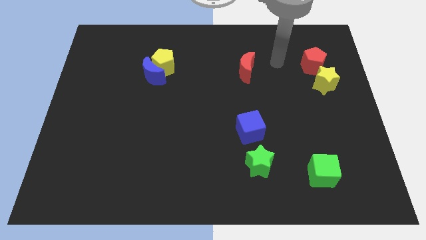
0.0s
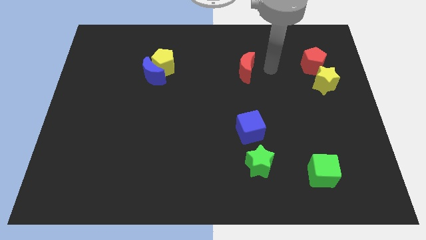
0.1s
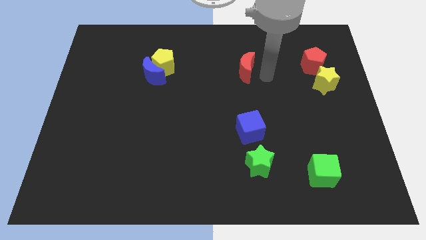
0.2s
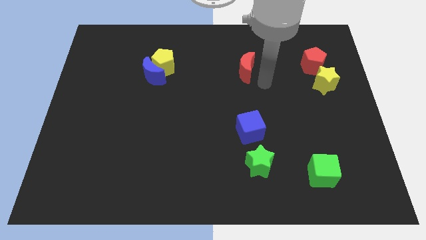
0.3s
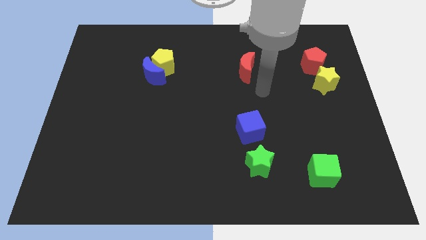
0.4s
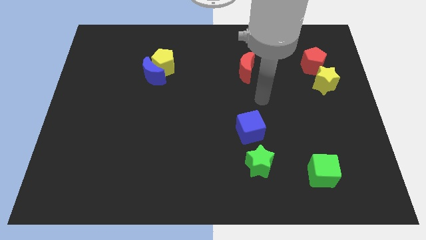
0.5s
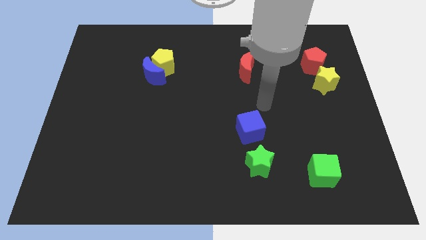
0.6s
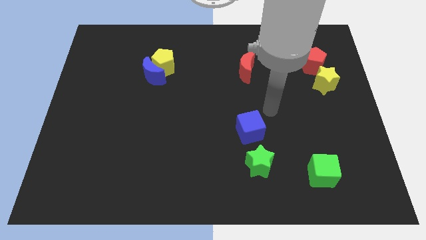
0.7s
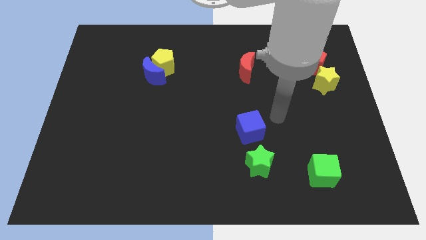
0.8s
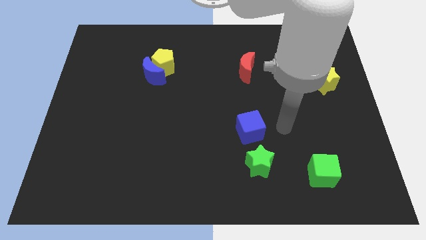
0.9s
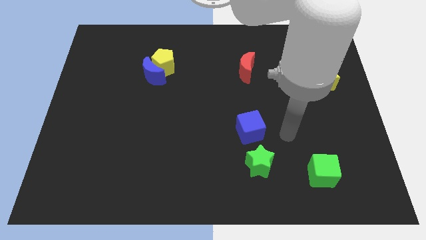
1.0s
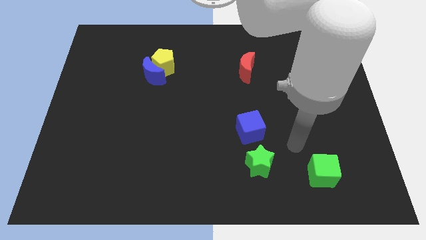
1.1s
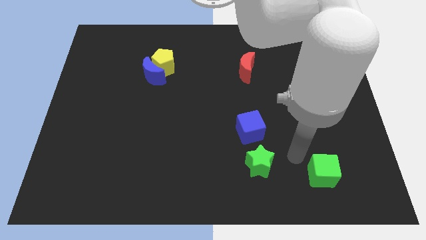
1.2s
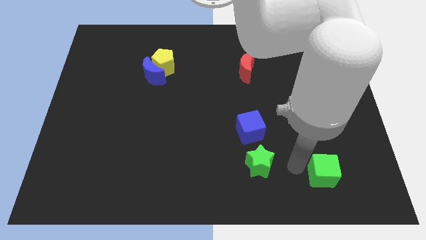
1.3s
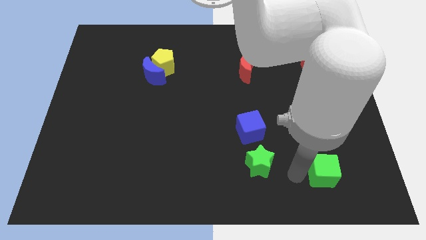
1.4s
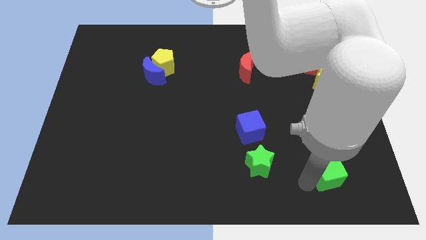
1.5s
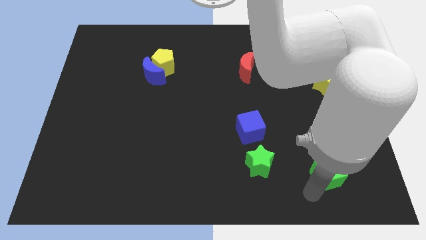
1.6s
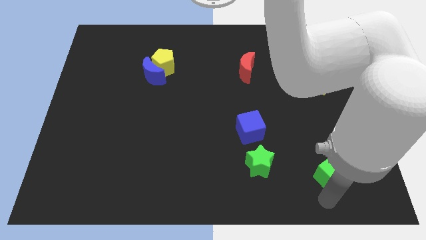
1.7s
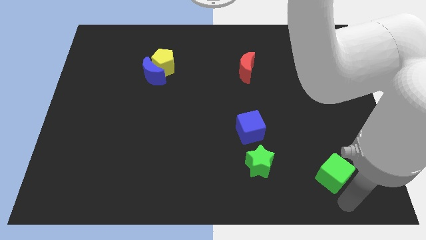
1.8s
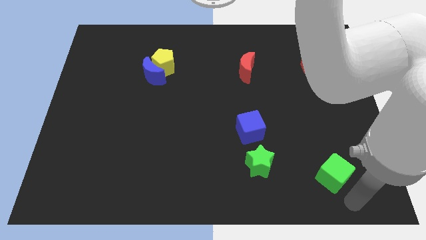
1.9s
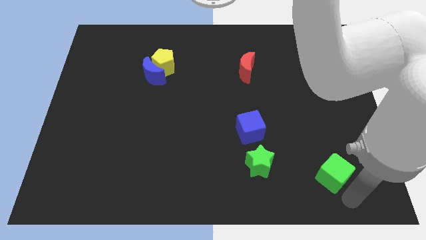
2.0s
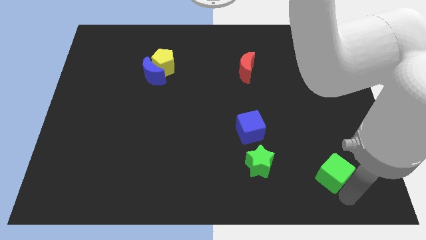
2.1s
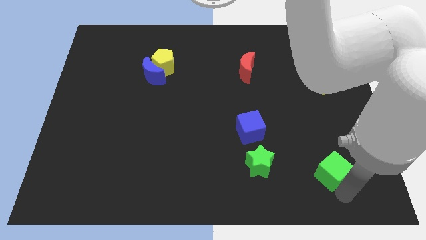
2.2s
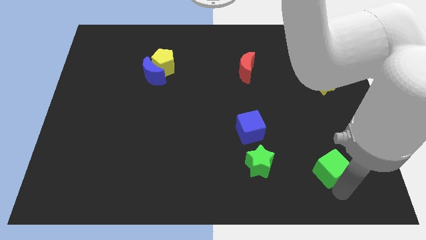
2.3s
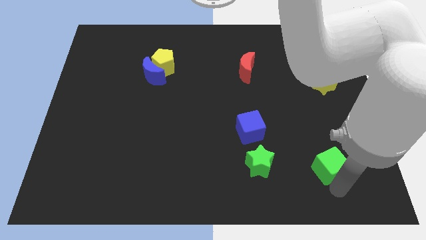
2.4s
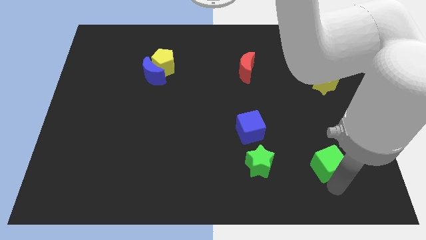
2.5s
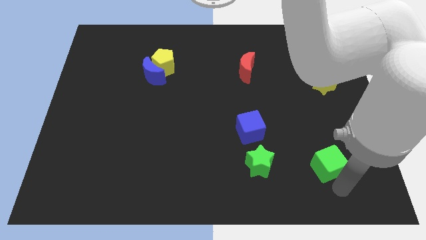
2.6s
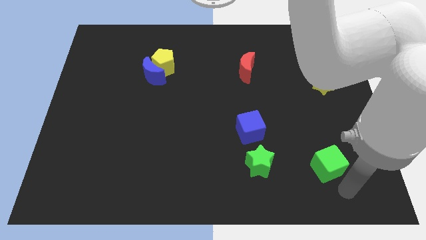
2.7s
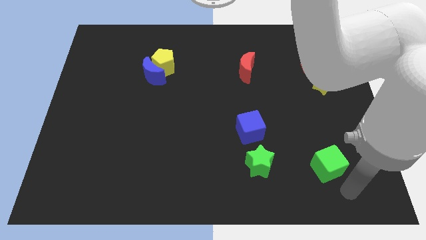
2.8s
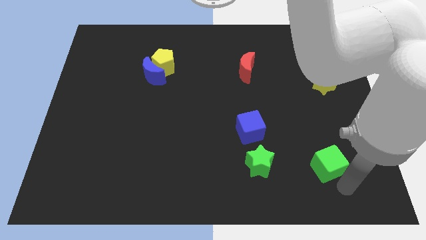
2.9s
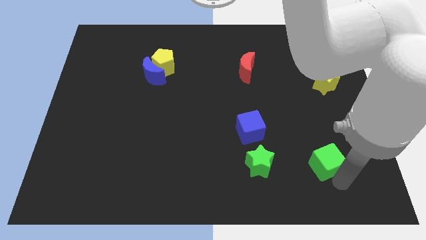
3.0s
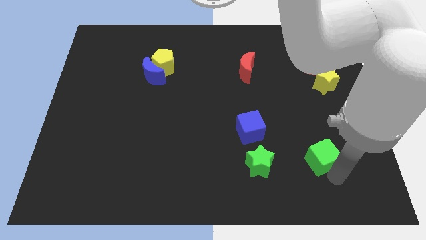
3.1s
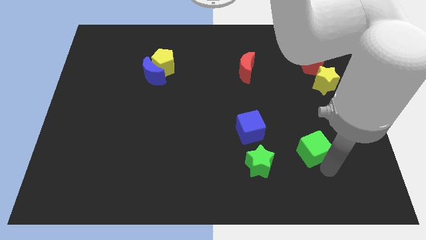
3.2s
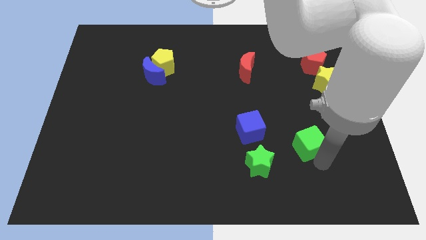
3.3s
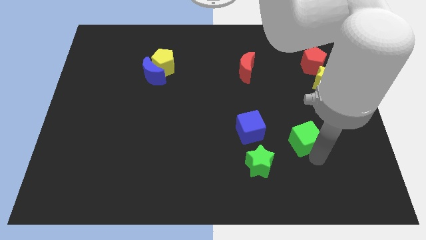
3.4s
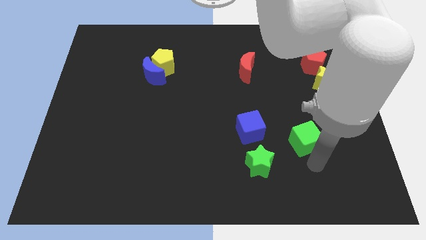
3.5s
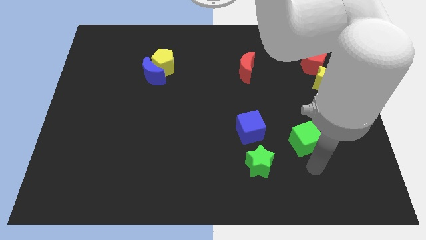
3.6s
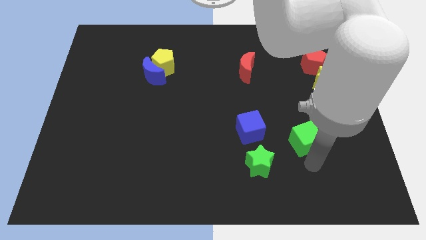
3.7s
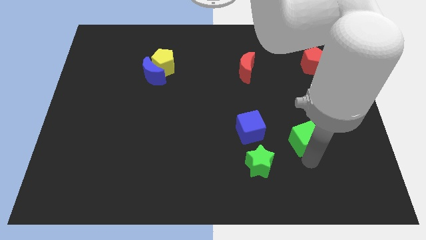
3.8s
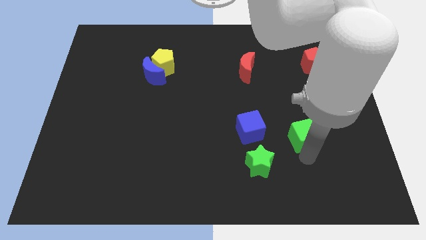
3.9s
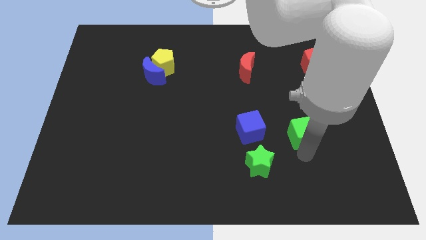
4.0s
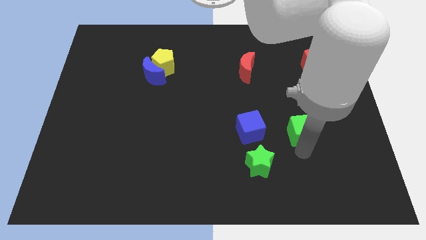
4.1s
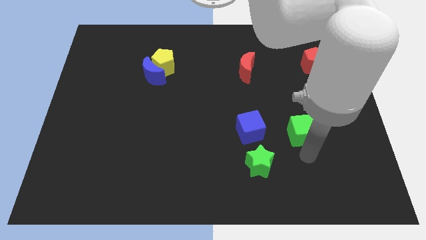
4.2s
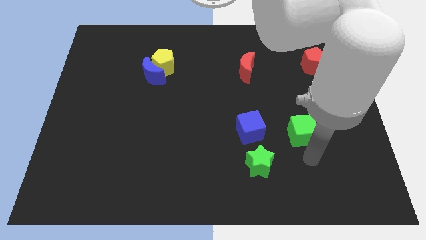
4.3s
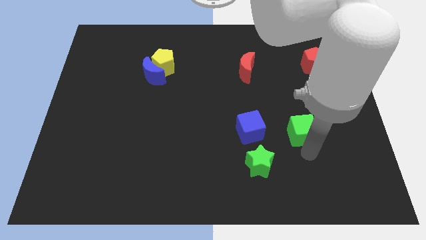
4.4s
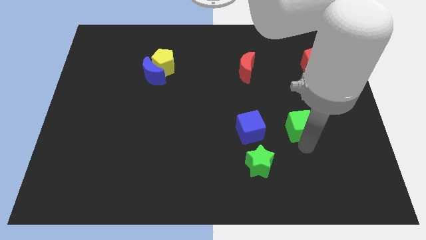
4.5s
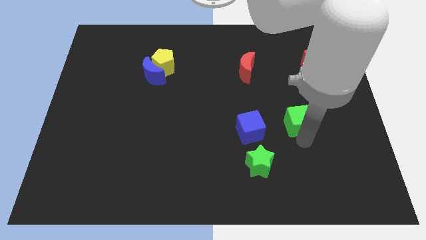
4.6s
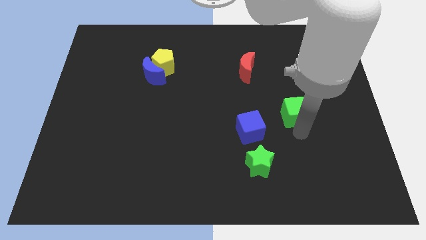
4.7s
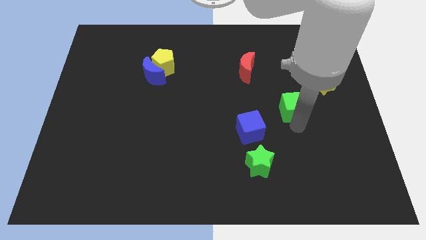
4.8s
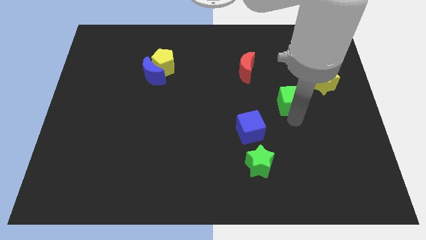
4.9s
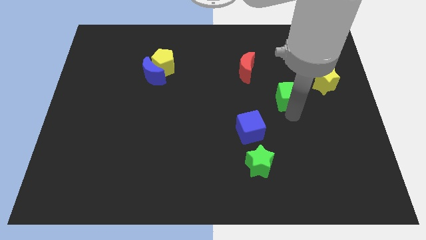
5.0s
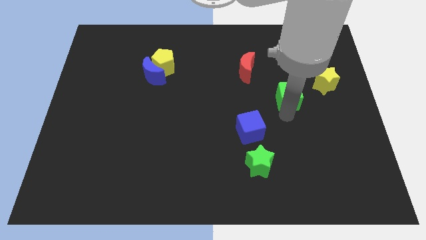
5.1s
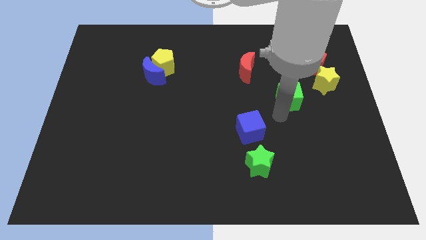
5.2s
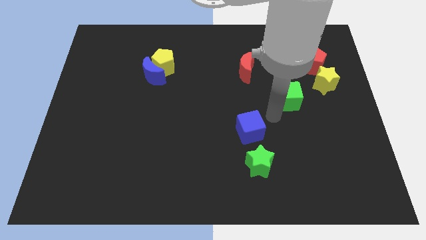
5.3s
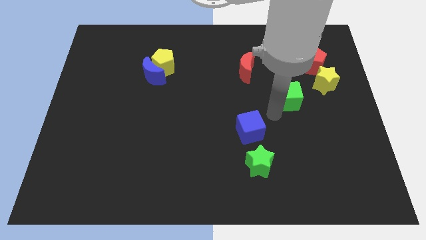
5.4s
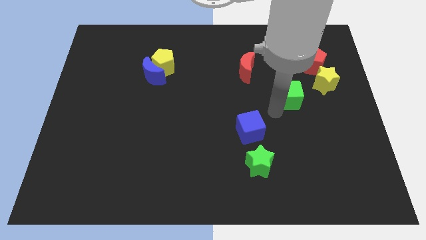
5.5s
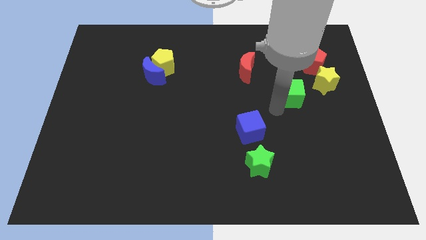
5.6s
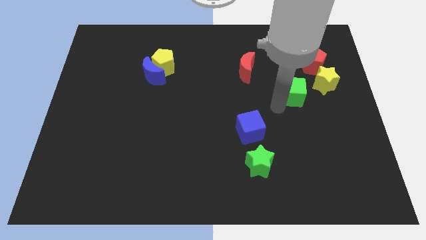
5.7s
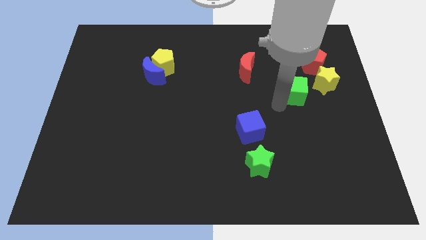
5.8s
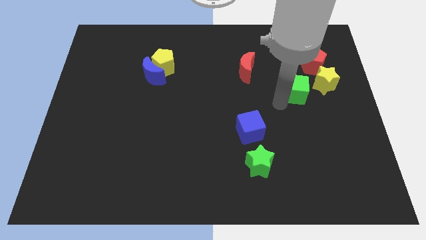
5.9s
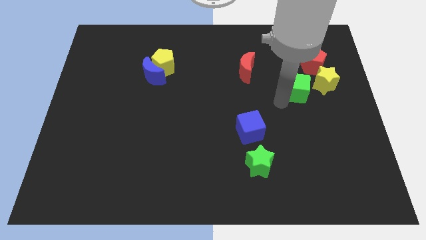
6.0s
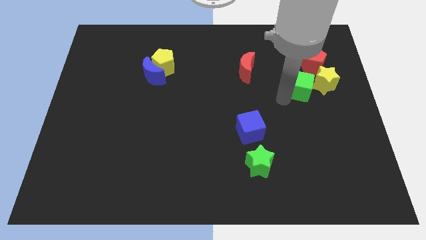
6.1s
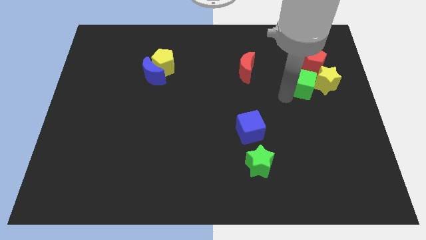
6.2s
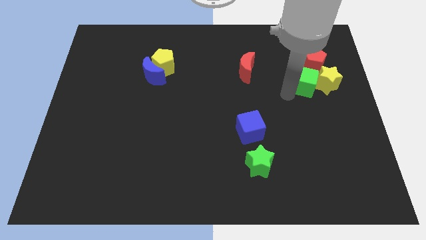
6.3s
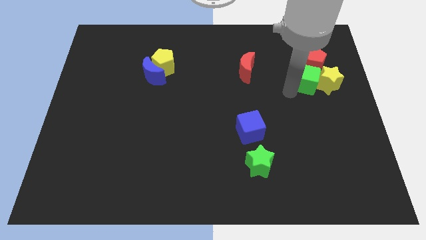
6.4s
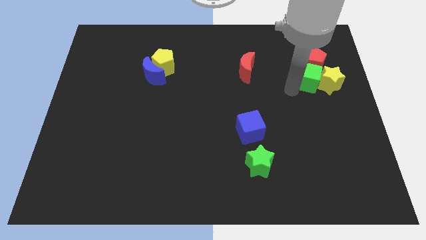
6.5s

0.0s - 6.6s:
push the green cube towards the red pentagon

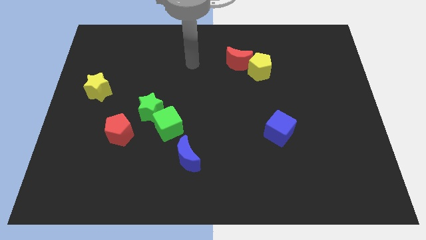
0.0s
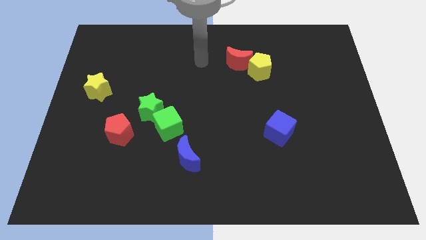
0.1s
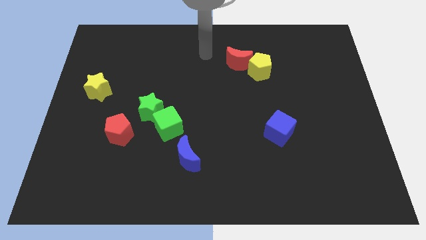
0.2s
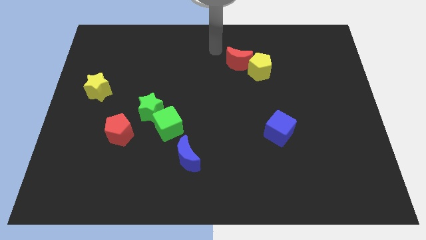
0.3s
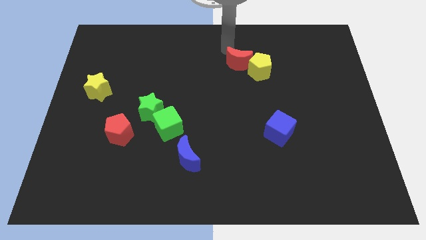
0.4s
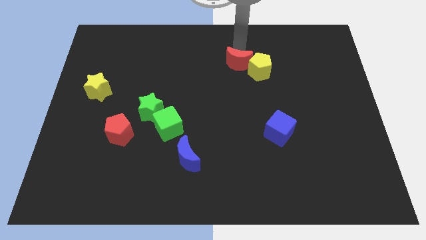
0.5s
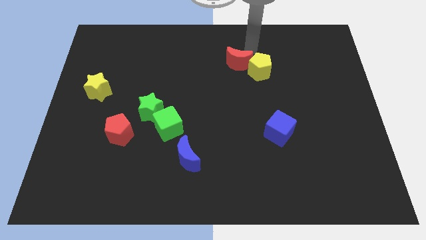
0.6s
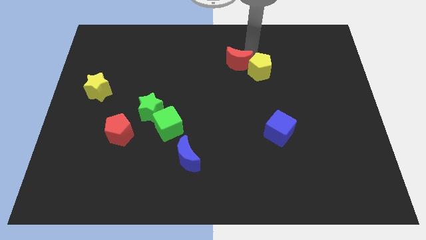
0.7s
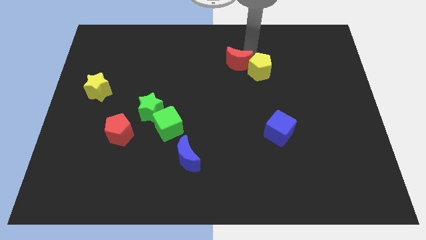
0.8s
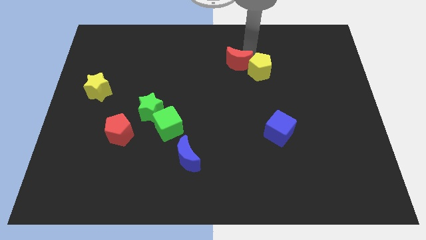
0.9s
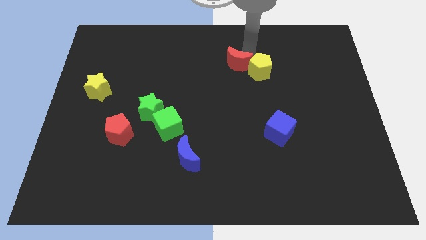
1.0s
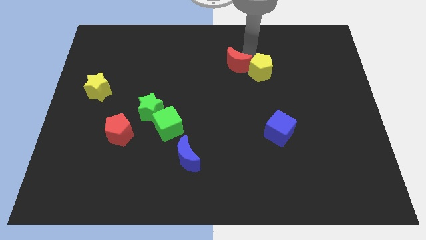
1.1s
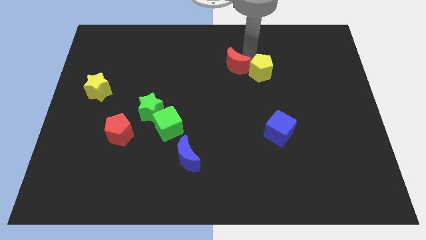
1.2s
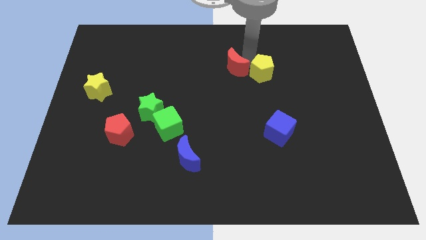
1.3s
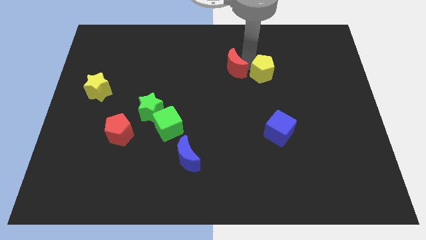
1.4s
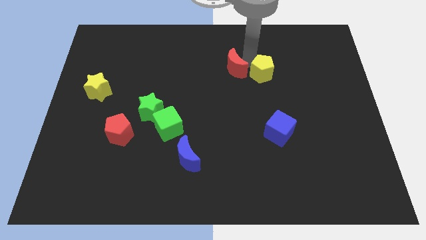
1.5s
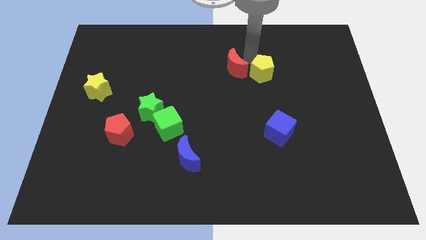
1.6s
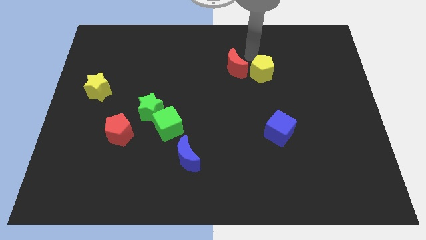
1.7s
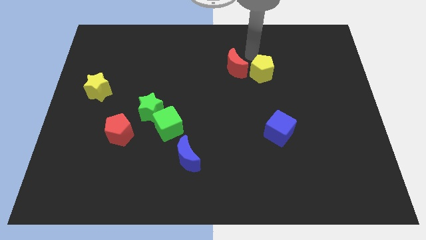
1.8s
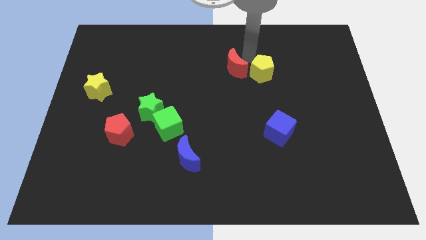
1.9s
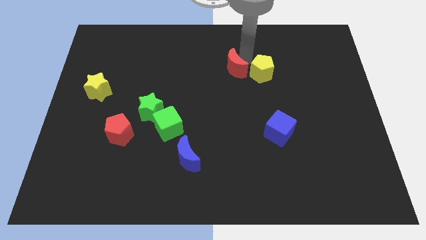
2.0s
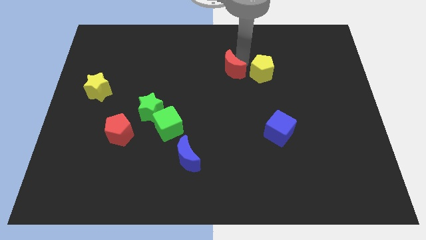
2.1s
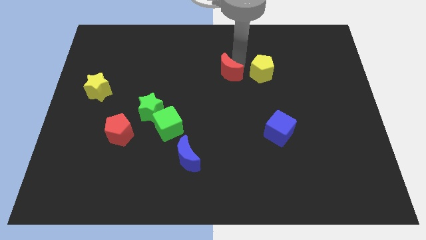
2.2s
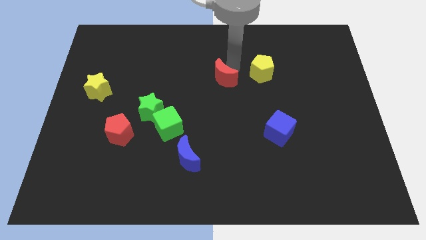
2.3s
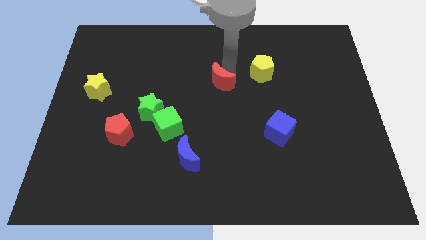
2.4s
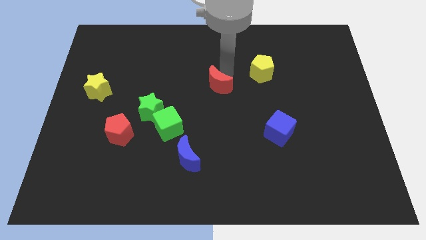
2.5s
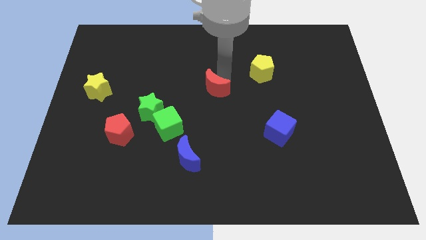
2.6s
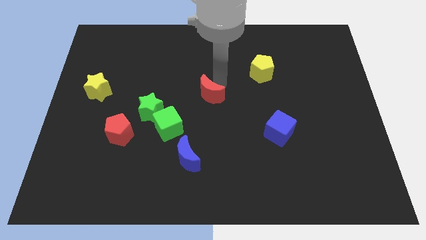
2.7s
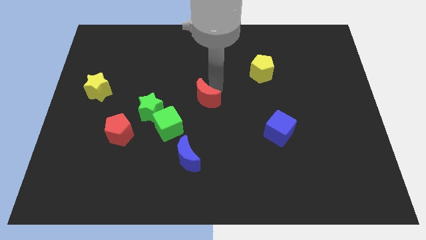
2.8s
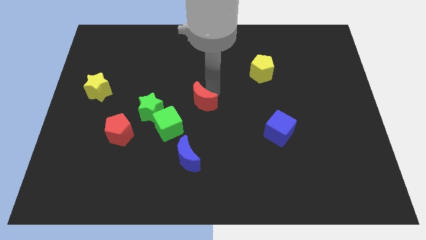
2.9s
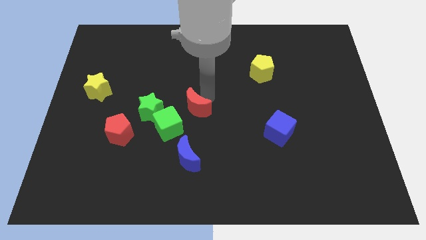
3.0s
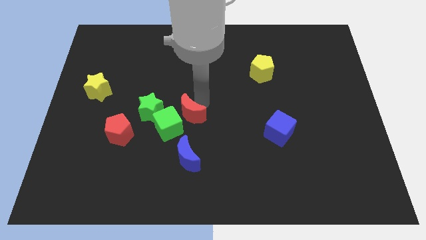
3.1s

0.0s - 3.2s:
move the red moon close to the green cube
